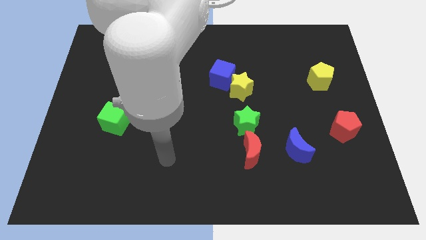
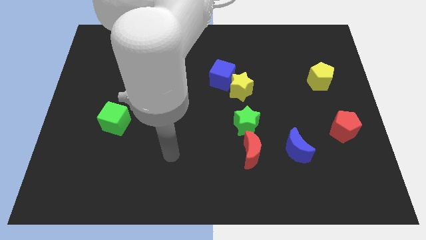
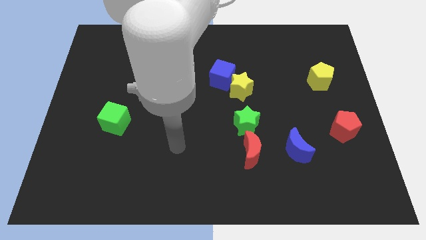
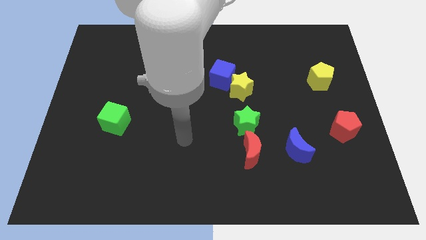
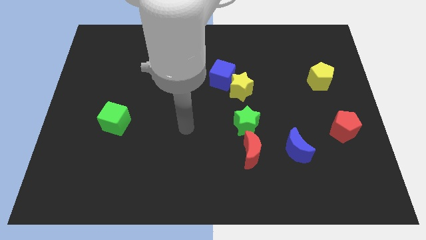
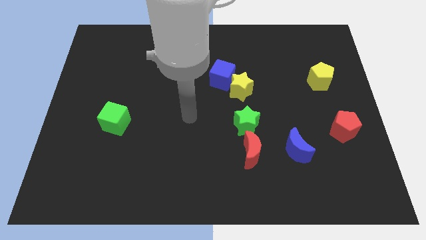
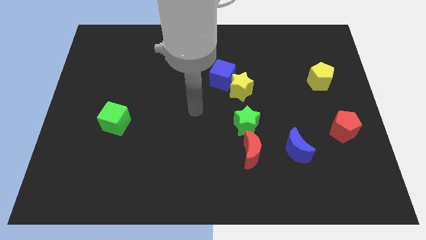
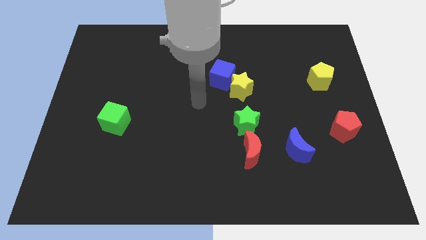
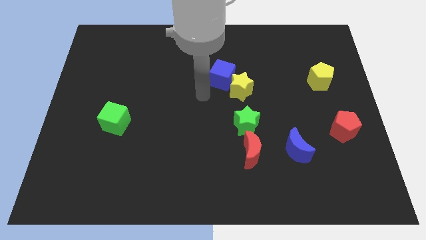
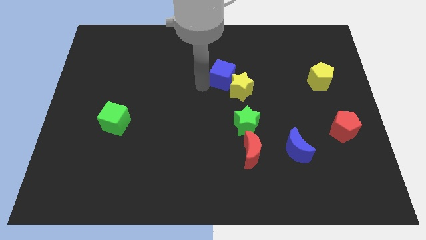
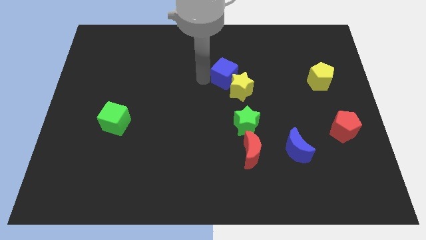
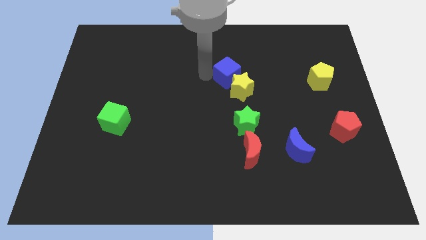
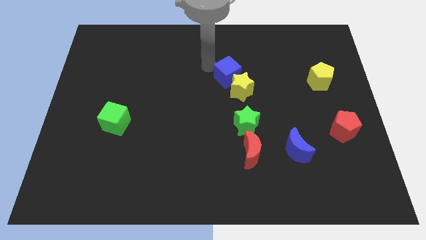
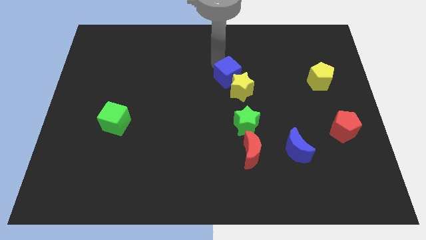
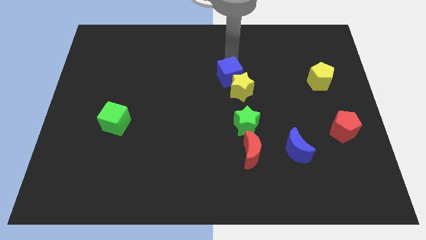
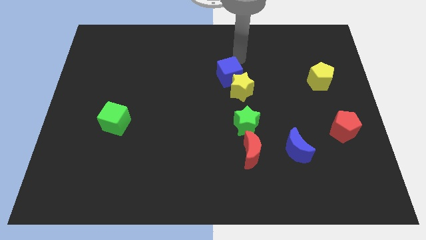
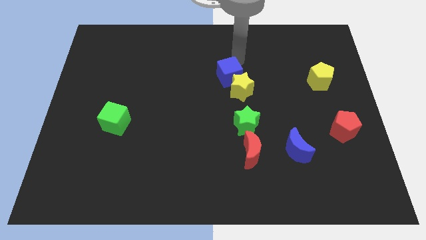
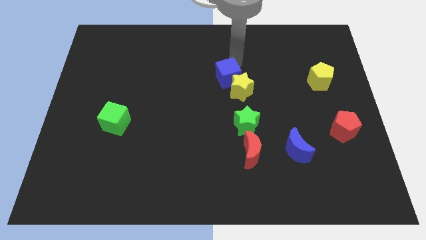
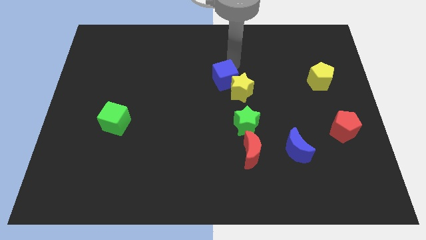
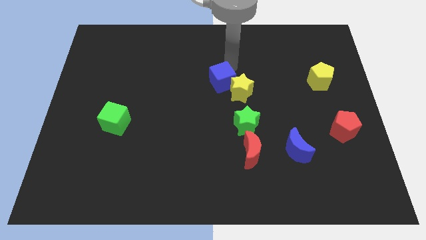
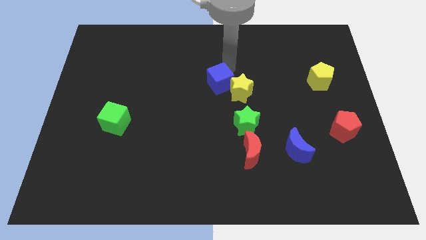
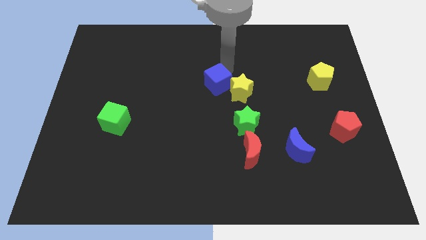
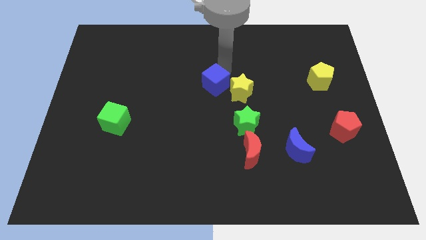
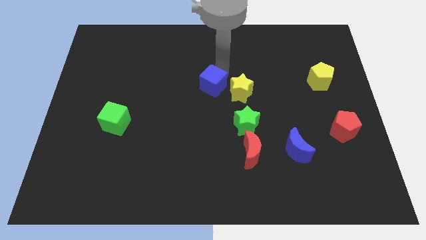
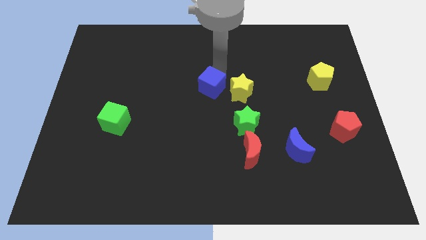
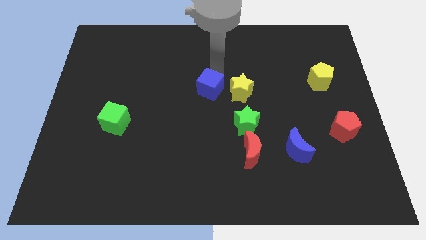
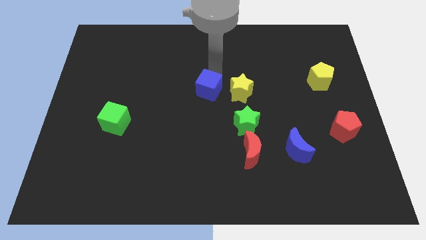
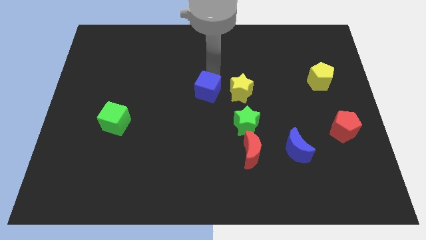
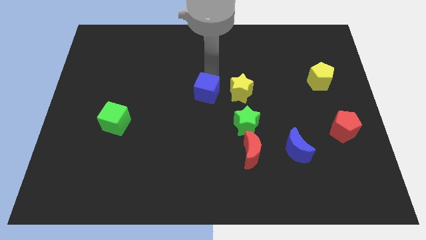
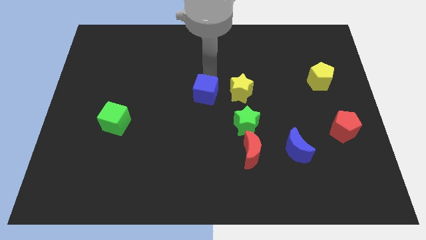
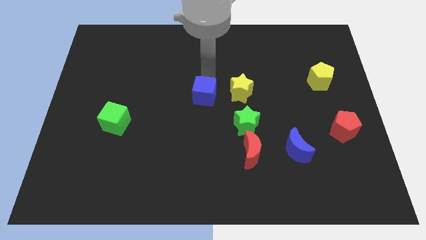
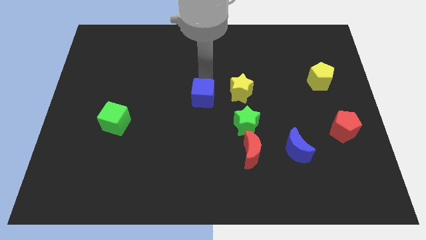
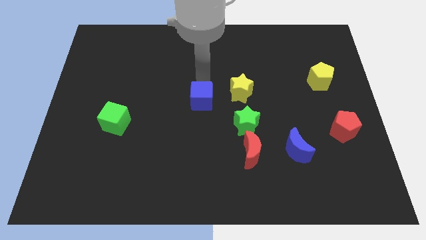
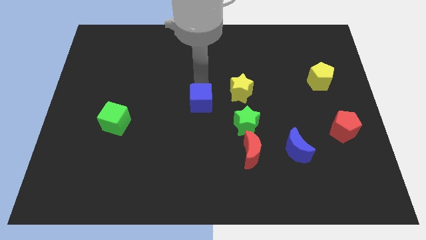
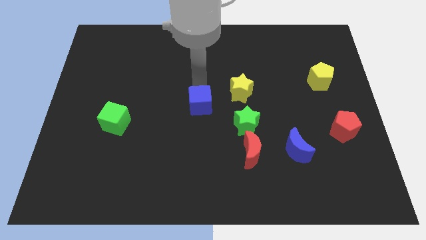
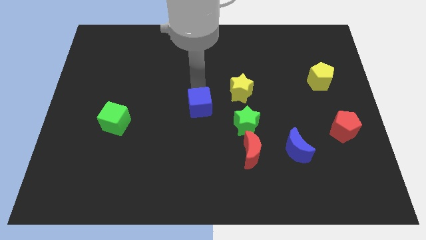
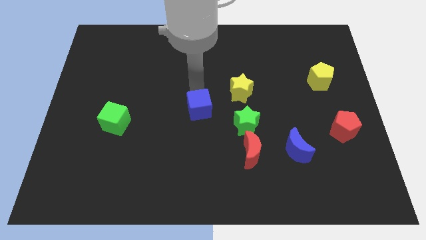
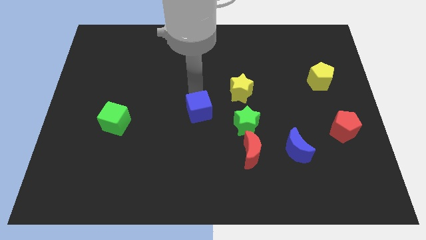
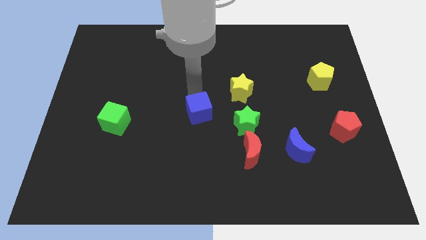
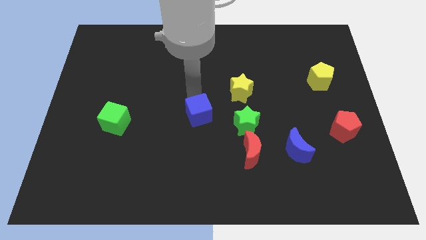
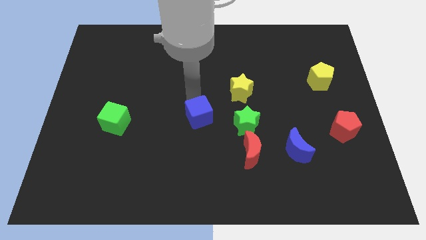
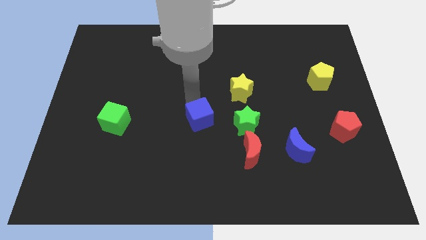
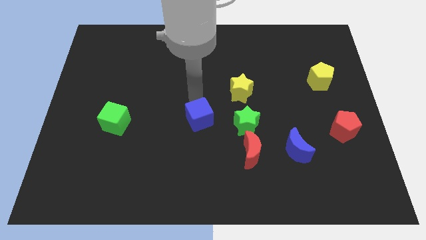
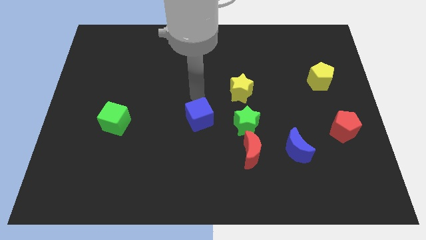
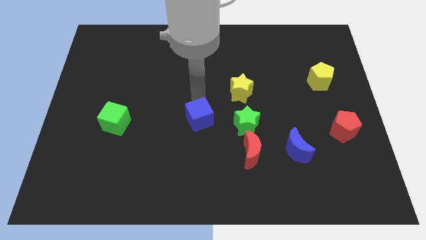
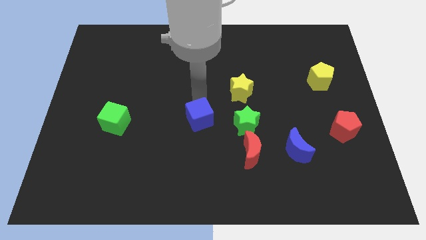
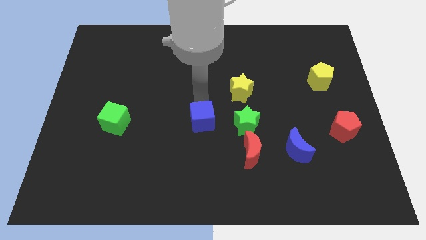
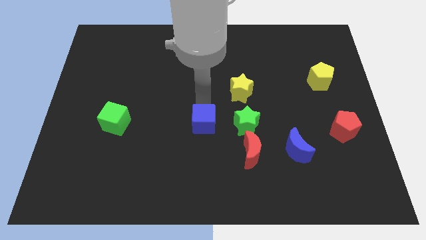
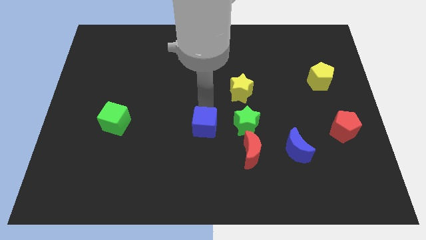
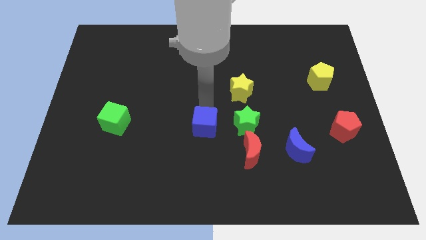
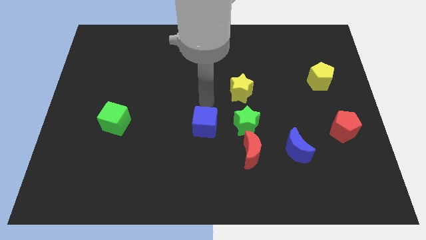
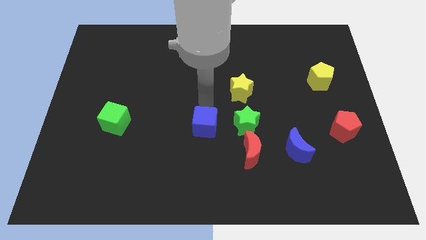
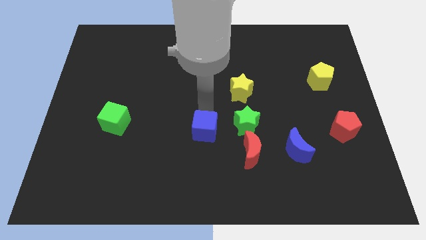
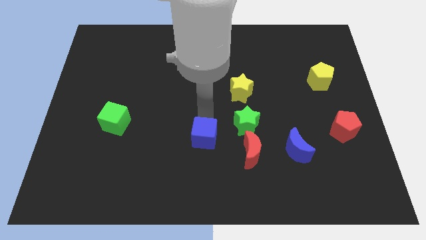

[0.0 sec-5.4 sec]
push the blue cube left of the red moon
